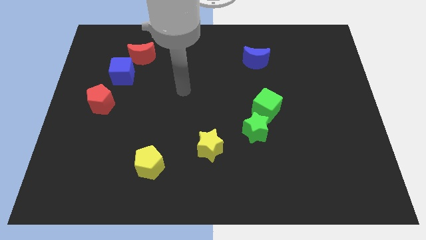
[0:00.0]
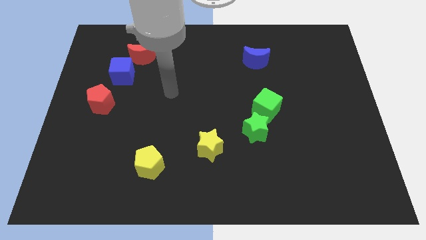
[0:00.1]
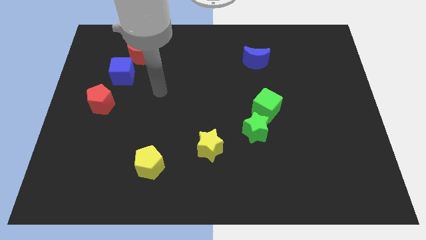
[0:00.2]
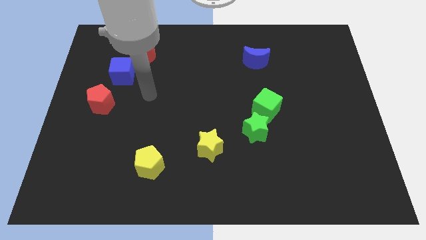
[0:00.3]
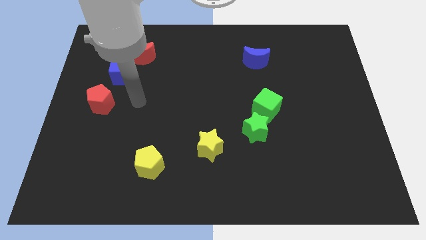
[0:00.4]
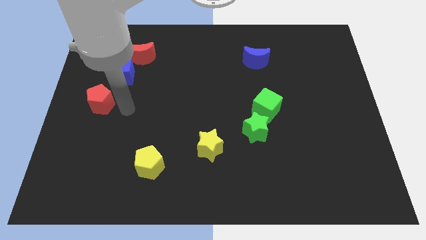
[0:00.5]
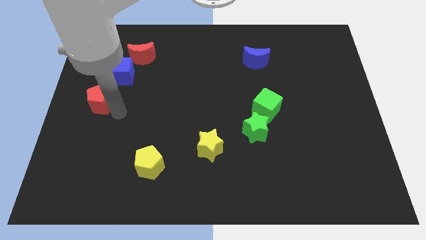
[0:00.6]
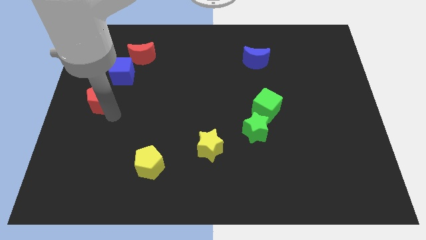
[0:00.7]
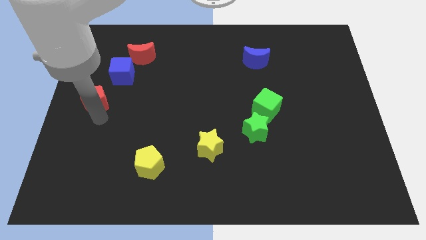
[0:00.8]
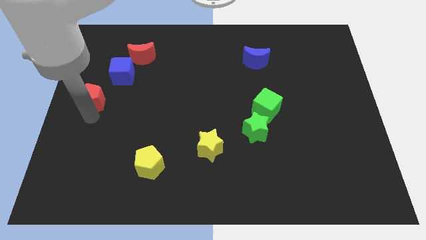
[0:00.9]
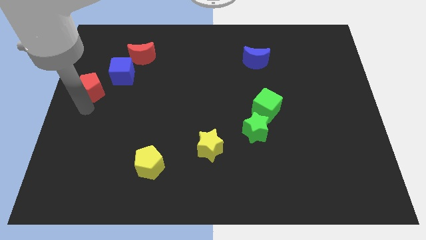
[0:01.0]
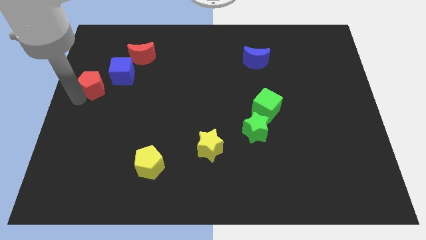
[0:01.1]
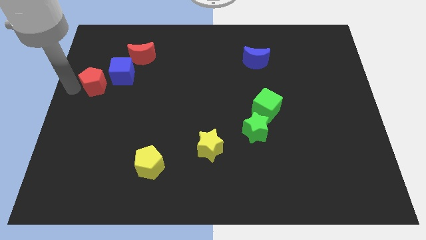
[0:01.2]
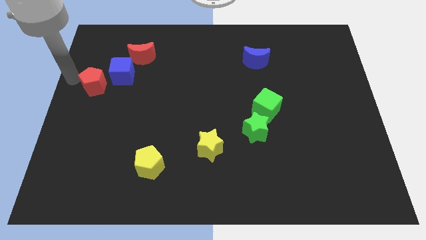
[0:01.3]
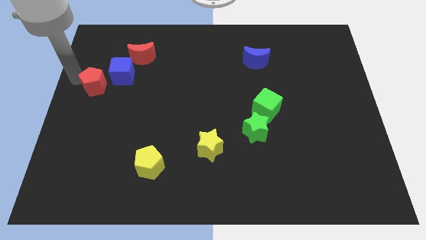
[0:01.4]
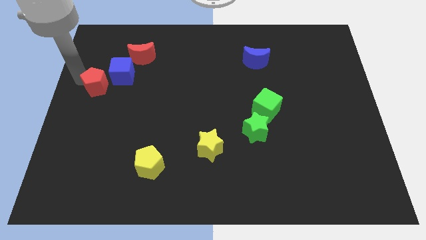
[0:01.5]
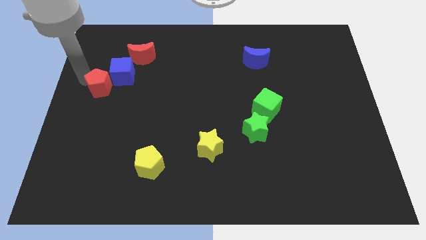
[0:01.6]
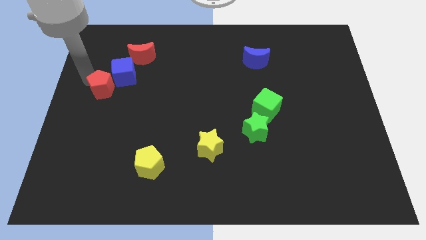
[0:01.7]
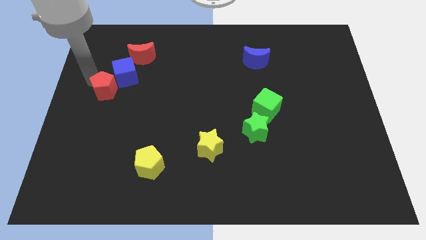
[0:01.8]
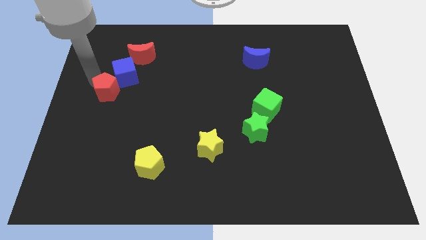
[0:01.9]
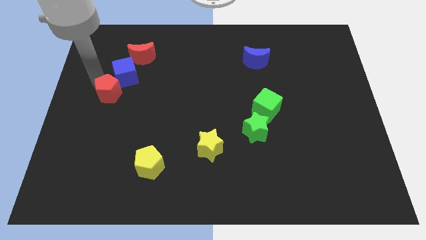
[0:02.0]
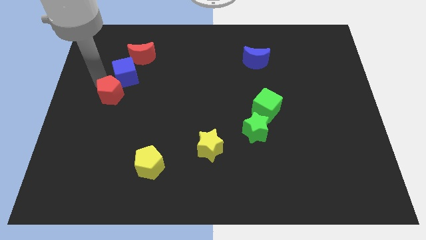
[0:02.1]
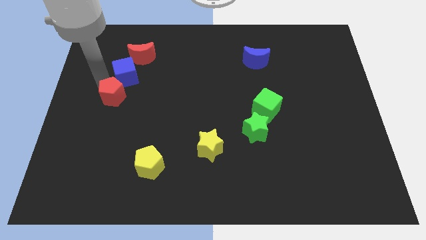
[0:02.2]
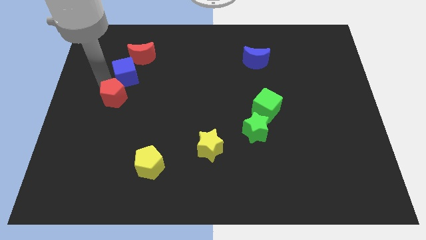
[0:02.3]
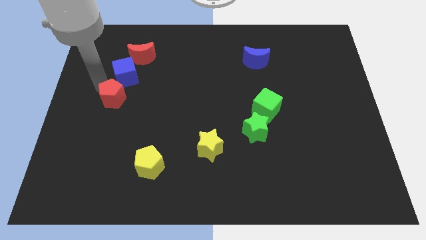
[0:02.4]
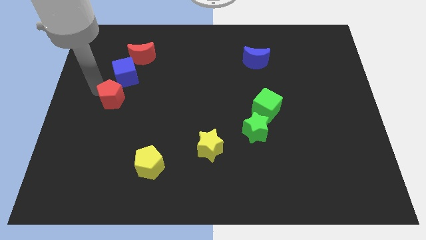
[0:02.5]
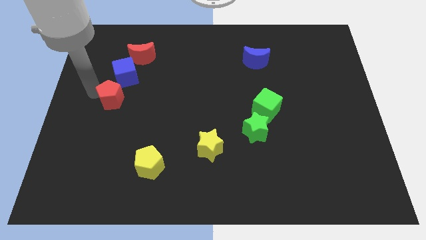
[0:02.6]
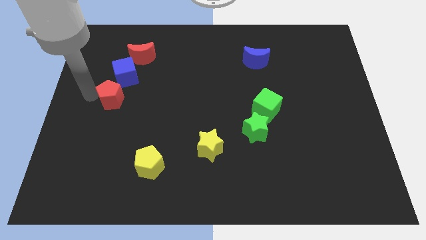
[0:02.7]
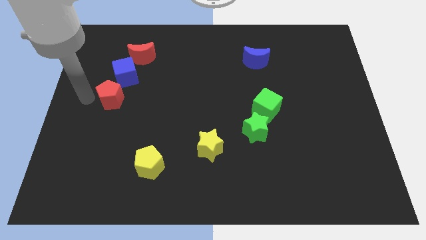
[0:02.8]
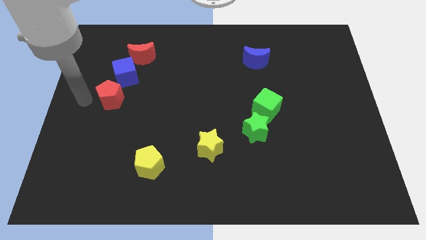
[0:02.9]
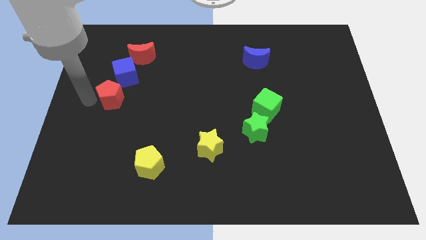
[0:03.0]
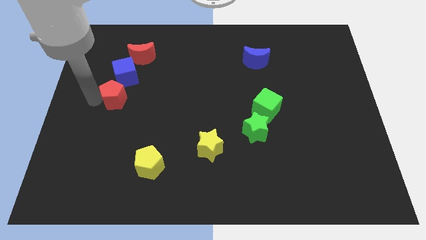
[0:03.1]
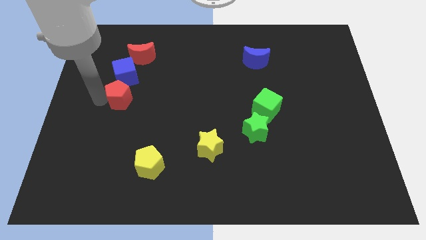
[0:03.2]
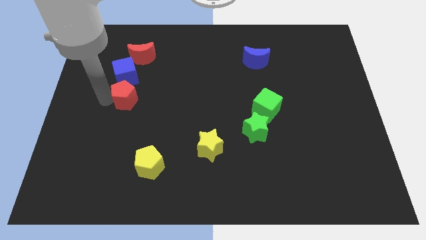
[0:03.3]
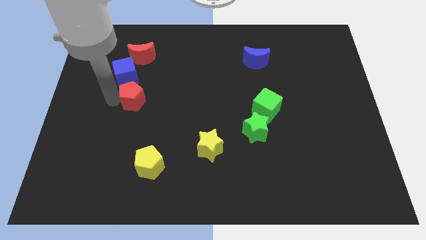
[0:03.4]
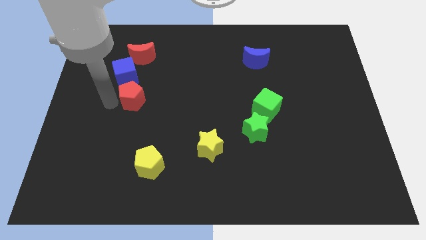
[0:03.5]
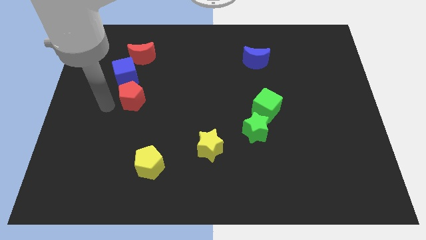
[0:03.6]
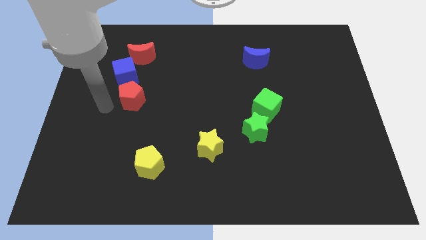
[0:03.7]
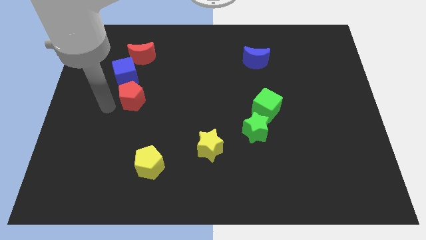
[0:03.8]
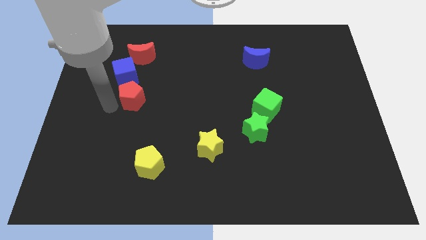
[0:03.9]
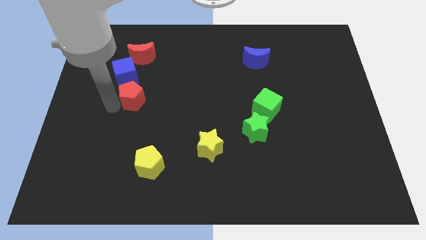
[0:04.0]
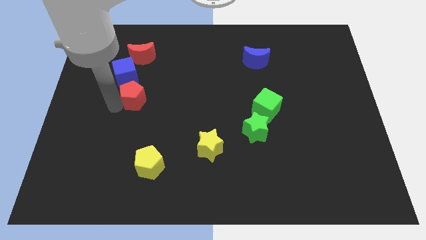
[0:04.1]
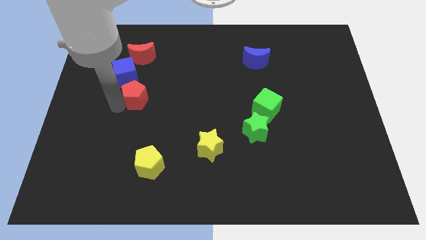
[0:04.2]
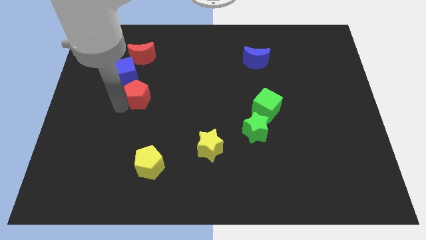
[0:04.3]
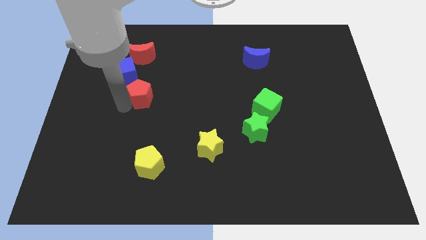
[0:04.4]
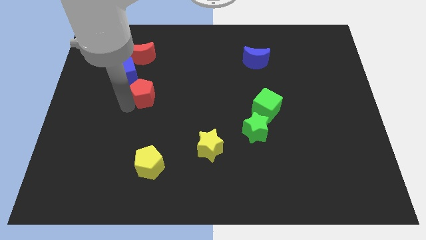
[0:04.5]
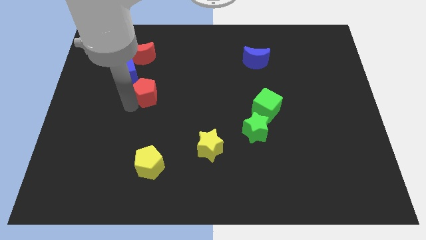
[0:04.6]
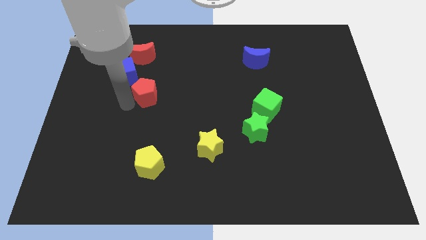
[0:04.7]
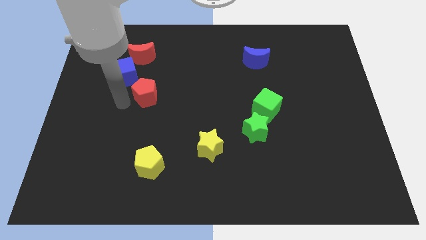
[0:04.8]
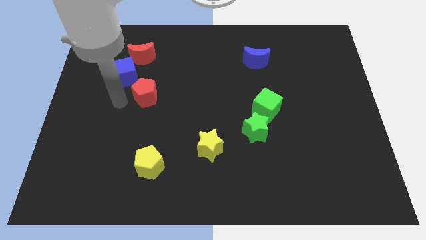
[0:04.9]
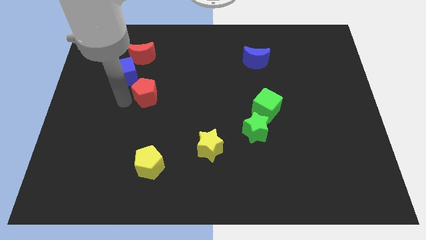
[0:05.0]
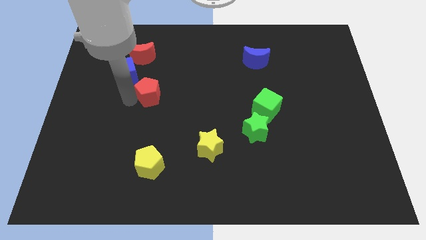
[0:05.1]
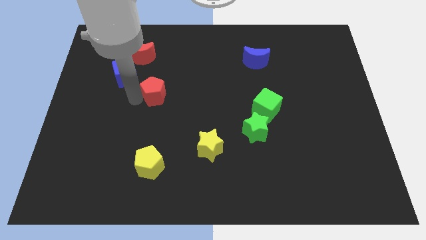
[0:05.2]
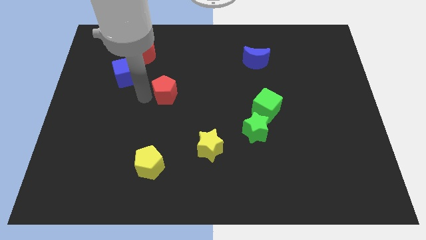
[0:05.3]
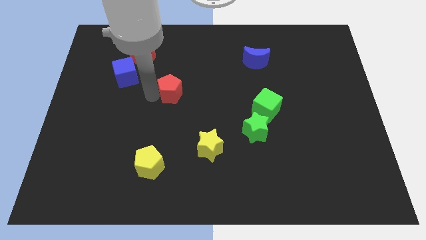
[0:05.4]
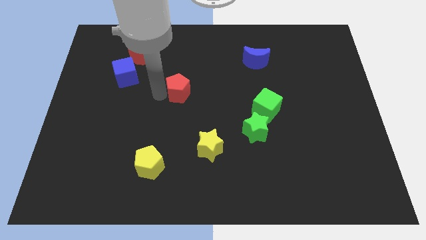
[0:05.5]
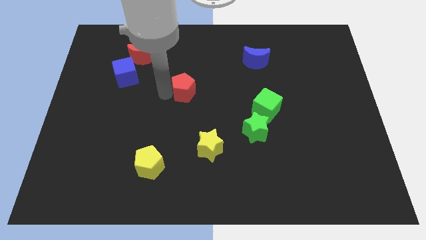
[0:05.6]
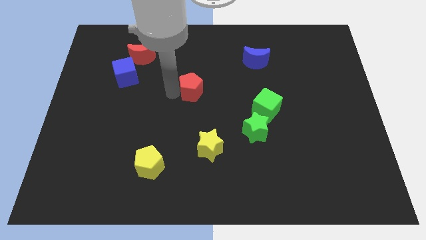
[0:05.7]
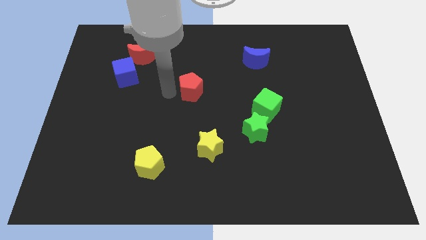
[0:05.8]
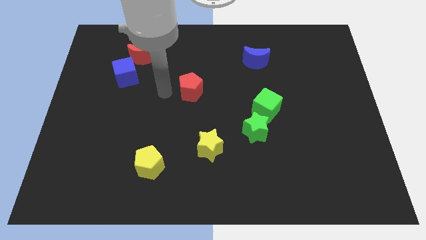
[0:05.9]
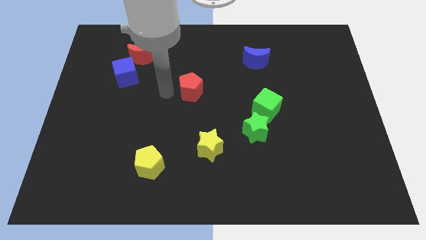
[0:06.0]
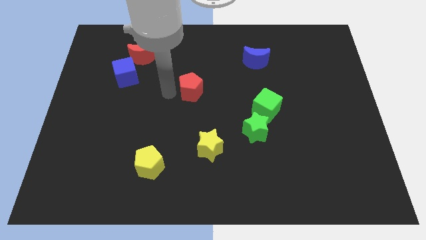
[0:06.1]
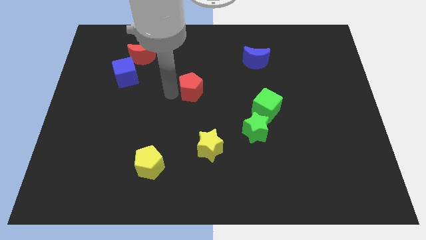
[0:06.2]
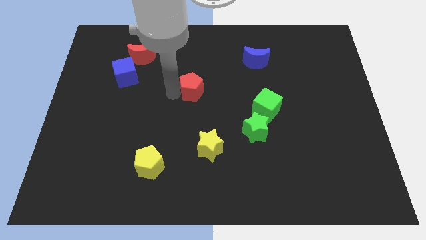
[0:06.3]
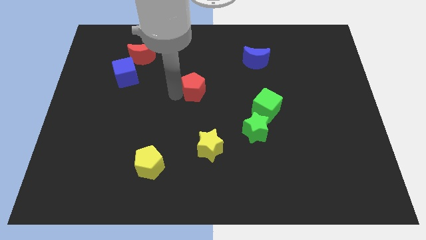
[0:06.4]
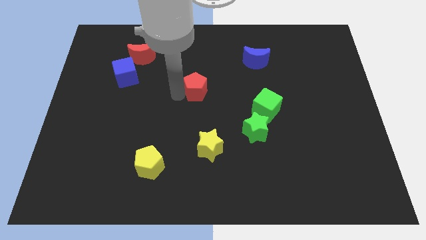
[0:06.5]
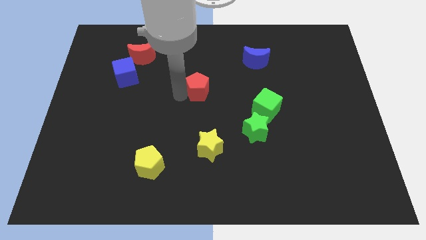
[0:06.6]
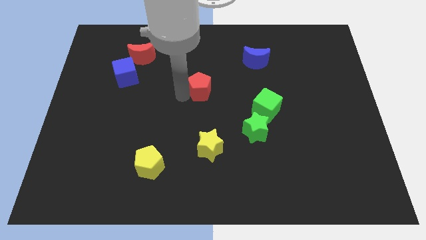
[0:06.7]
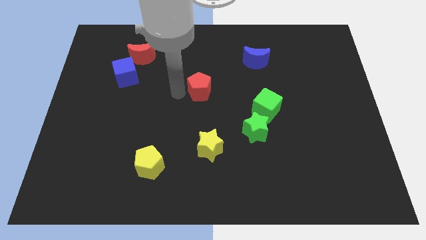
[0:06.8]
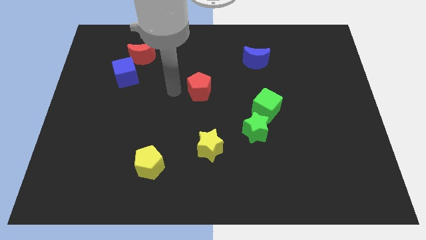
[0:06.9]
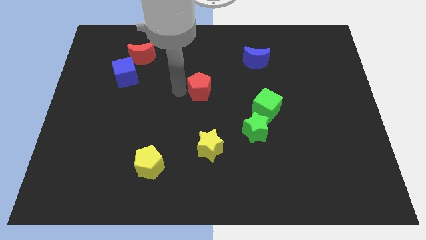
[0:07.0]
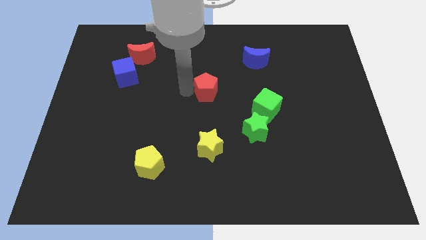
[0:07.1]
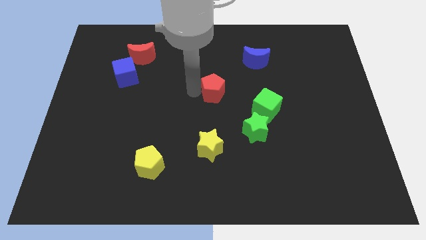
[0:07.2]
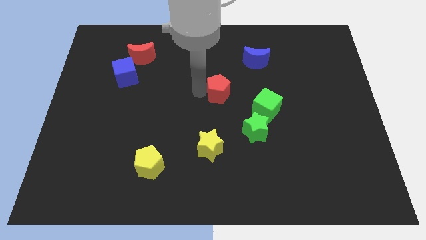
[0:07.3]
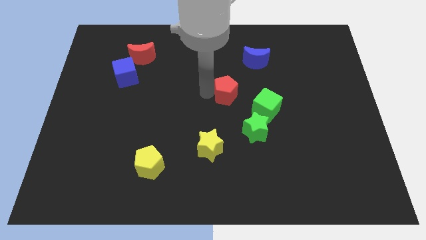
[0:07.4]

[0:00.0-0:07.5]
put the red pentagon to the top left of the green cube
